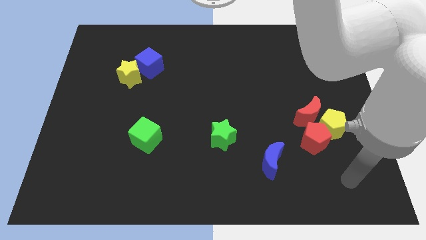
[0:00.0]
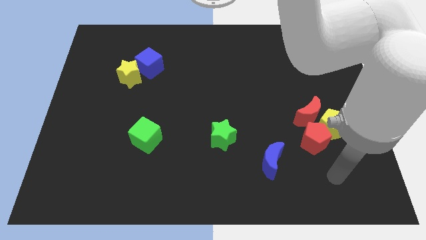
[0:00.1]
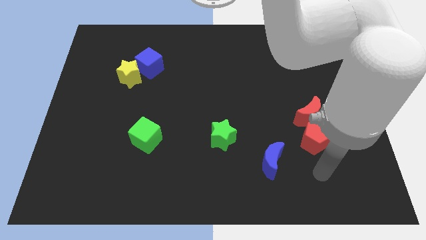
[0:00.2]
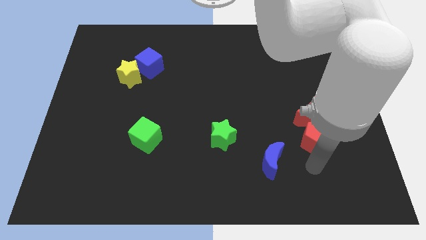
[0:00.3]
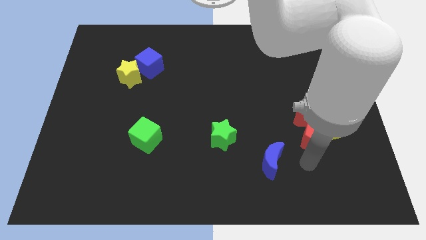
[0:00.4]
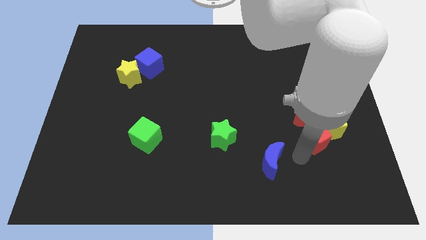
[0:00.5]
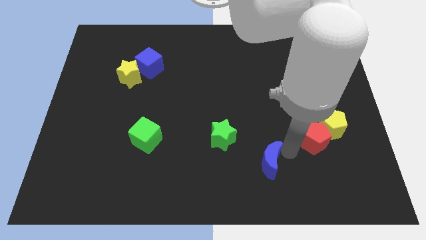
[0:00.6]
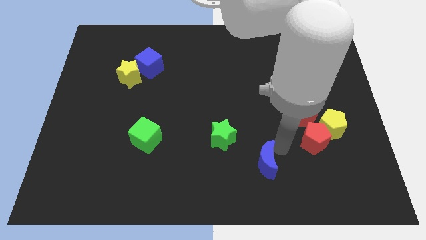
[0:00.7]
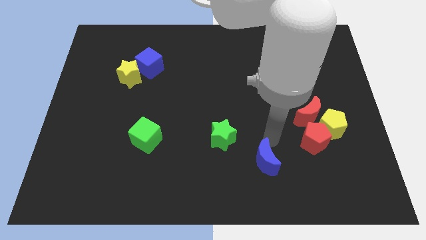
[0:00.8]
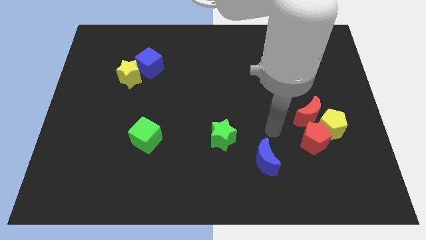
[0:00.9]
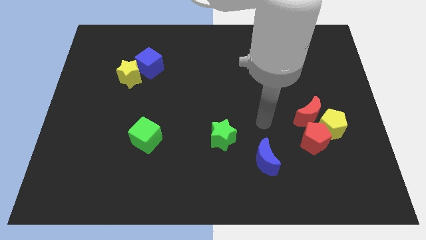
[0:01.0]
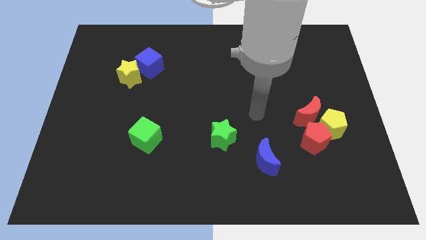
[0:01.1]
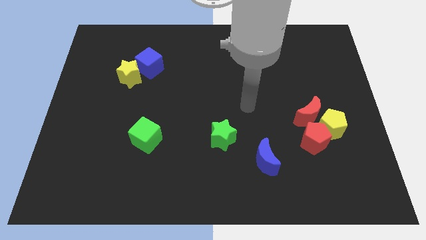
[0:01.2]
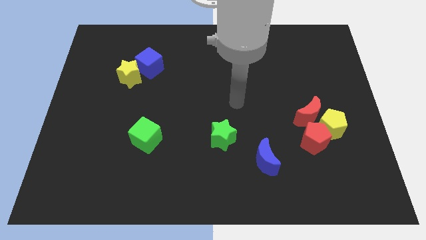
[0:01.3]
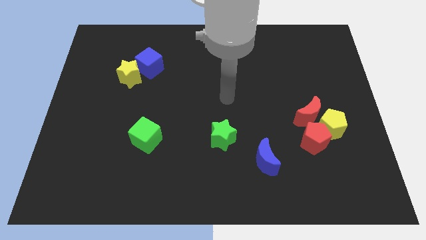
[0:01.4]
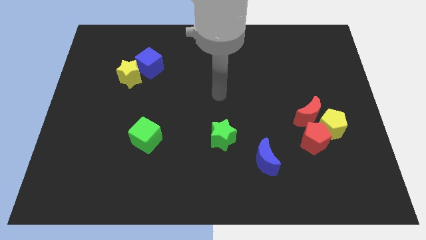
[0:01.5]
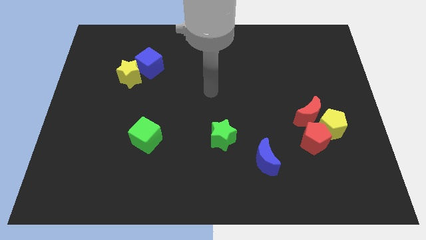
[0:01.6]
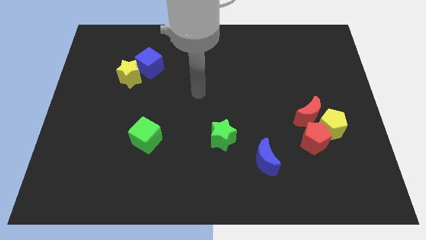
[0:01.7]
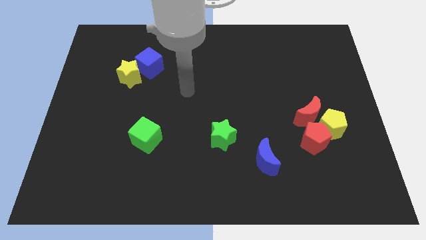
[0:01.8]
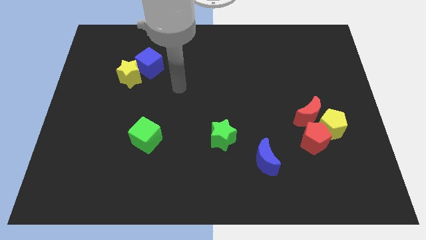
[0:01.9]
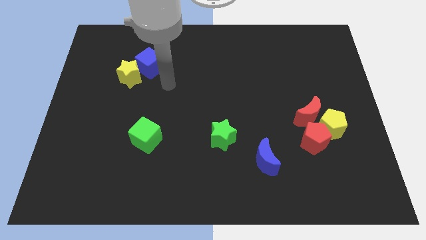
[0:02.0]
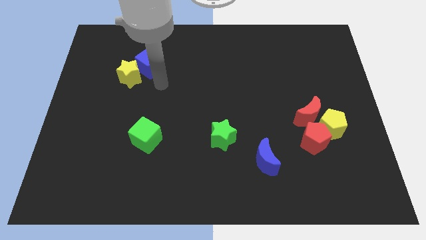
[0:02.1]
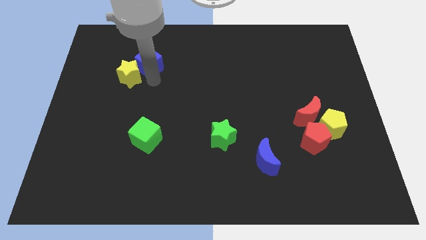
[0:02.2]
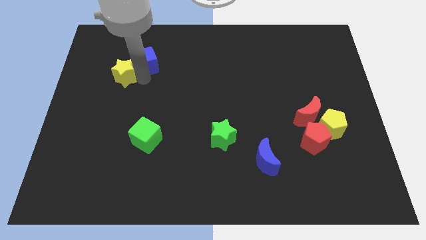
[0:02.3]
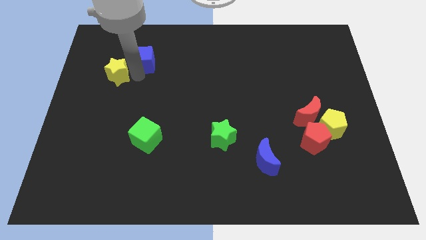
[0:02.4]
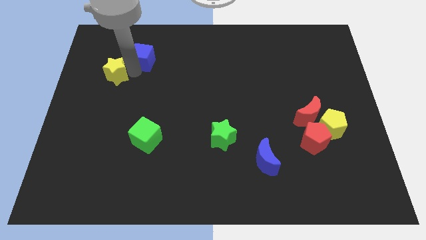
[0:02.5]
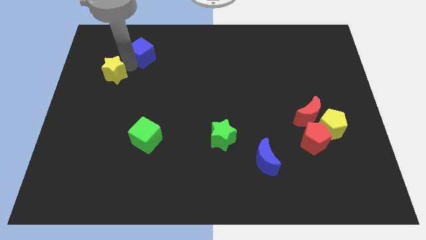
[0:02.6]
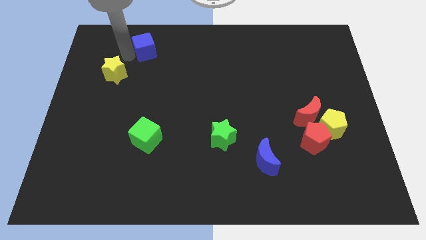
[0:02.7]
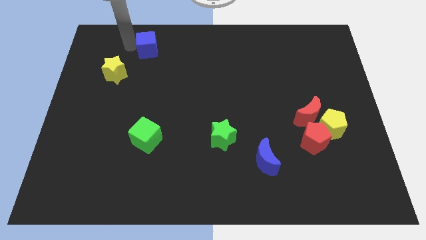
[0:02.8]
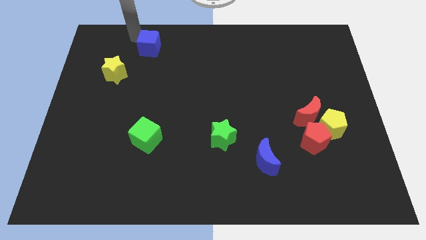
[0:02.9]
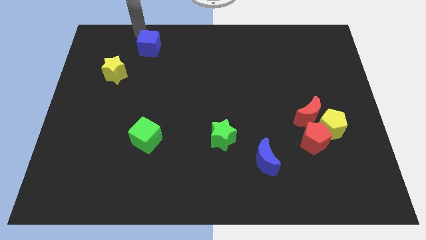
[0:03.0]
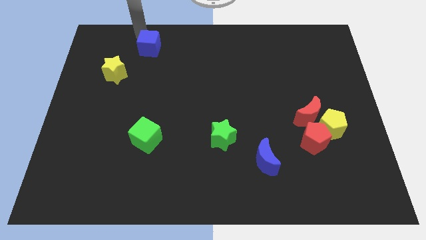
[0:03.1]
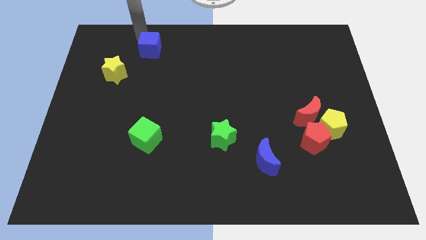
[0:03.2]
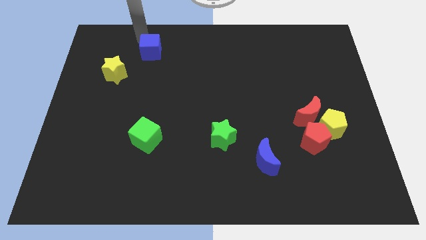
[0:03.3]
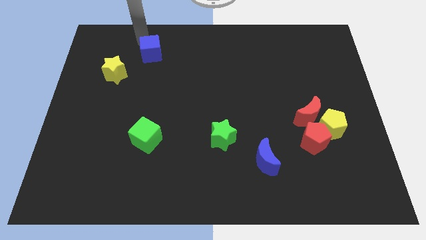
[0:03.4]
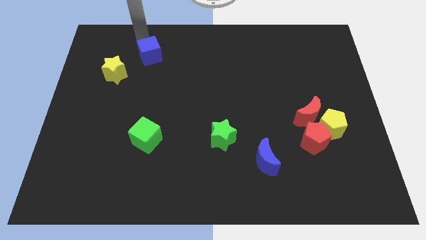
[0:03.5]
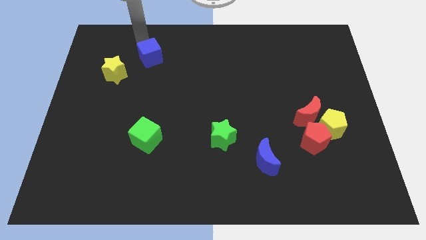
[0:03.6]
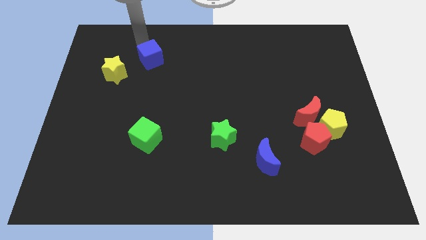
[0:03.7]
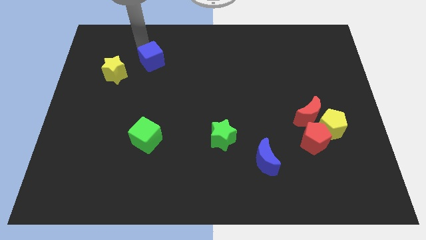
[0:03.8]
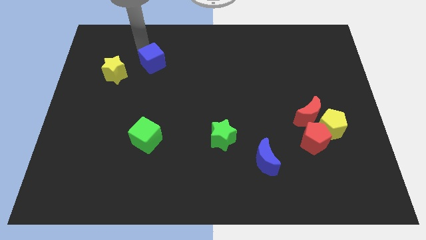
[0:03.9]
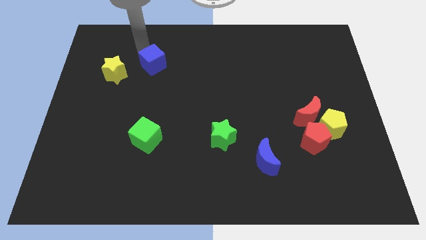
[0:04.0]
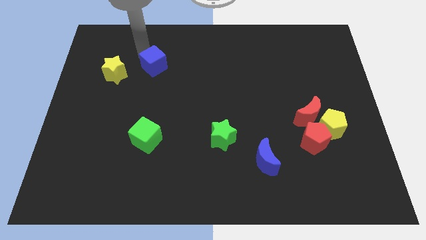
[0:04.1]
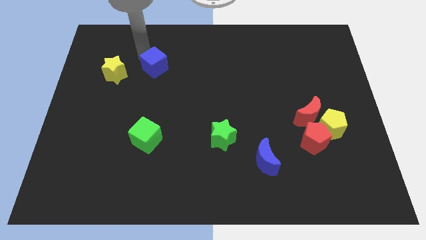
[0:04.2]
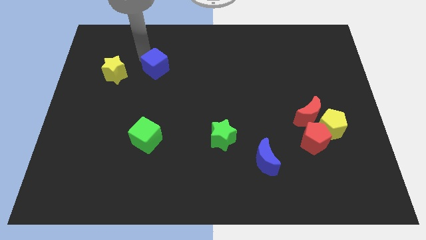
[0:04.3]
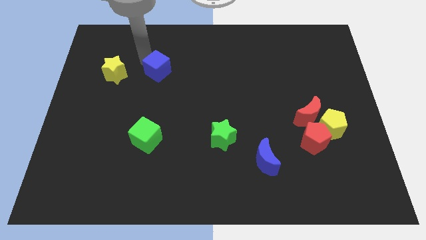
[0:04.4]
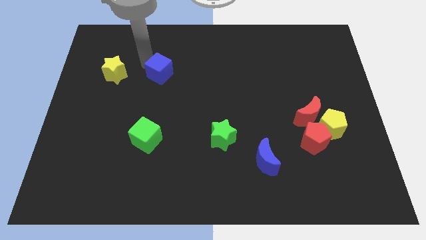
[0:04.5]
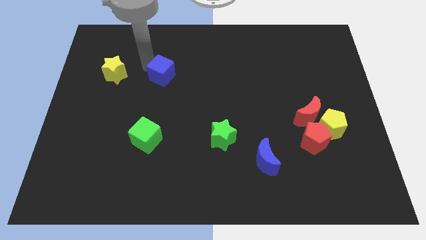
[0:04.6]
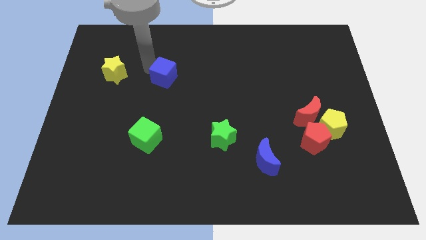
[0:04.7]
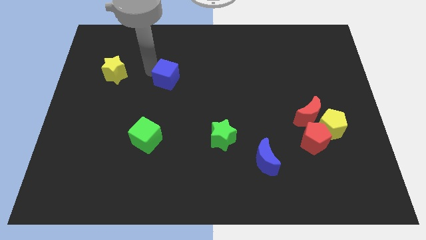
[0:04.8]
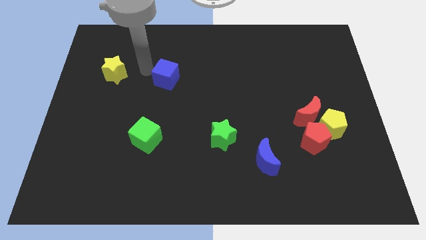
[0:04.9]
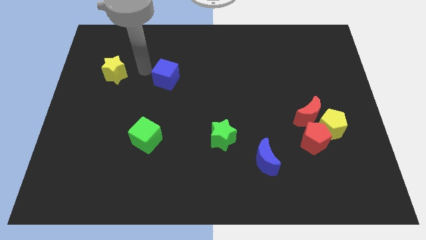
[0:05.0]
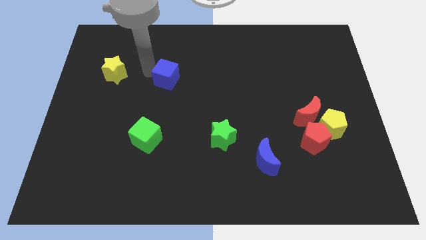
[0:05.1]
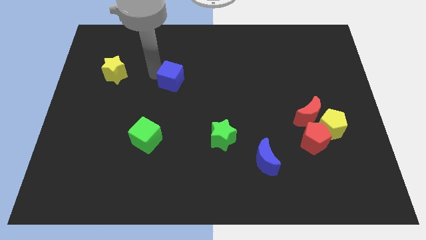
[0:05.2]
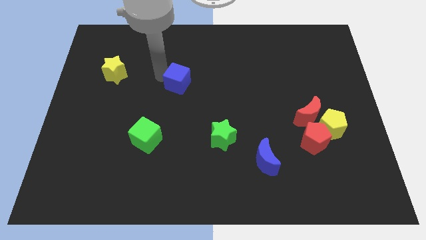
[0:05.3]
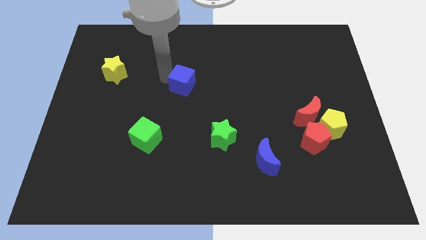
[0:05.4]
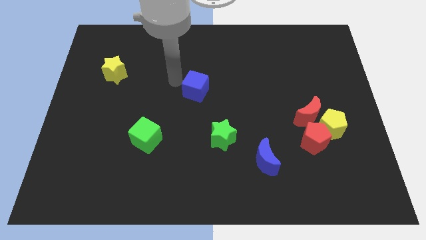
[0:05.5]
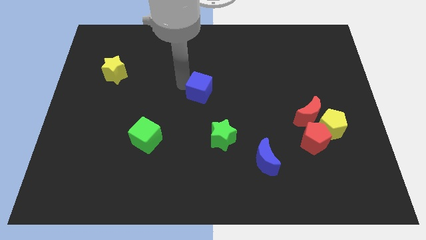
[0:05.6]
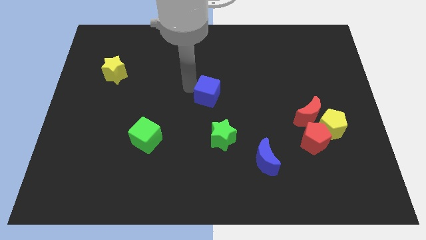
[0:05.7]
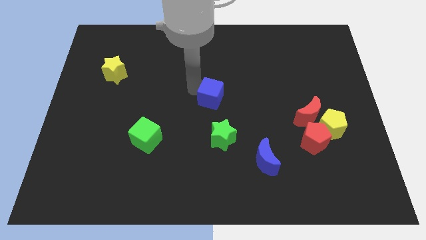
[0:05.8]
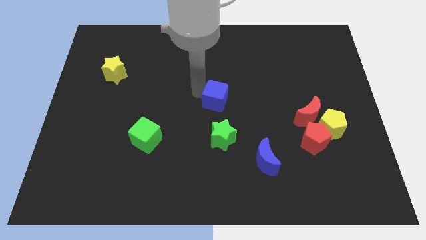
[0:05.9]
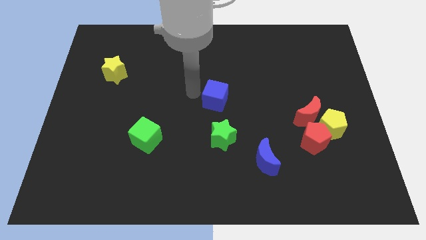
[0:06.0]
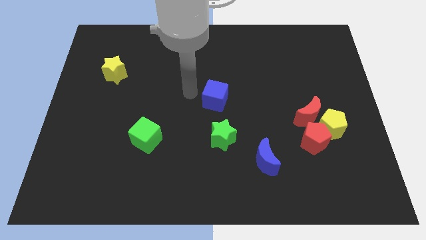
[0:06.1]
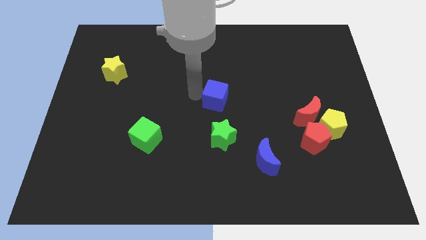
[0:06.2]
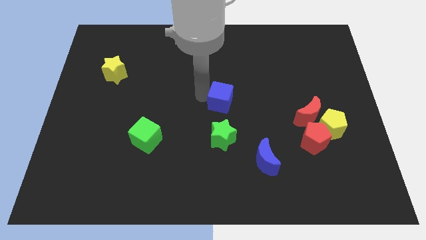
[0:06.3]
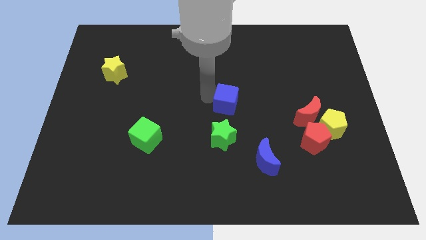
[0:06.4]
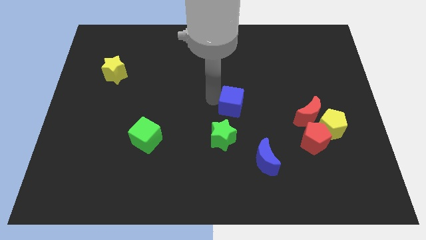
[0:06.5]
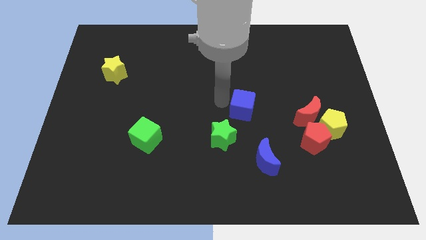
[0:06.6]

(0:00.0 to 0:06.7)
put the blue cube to the left side of the red moon
